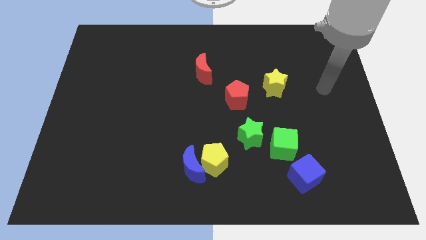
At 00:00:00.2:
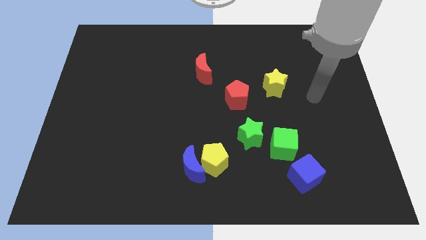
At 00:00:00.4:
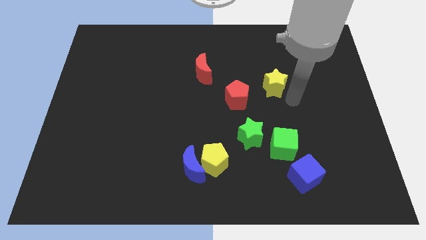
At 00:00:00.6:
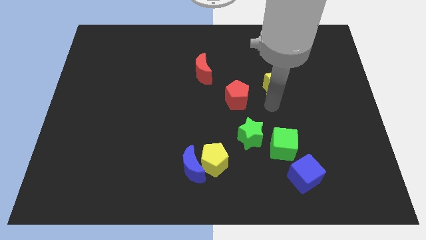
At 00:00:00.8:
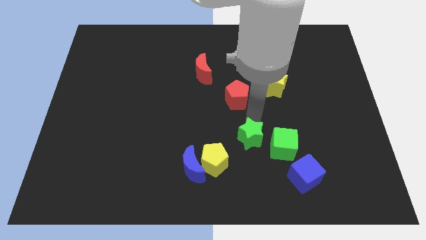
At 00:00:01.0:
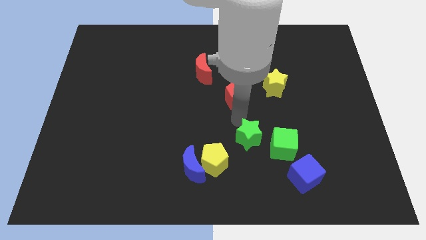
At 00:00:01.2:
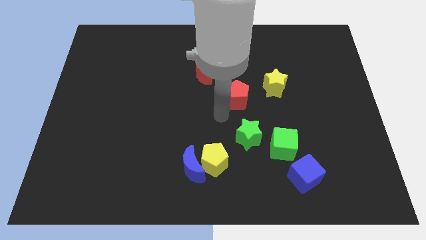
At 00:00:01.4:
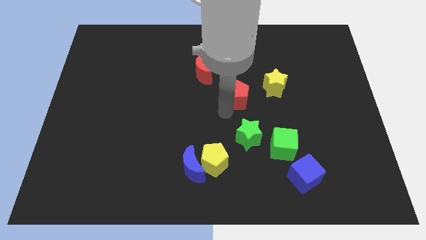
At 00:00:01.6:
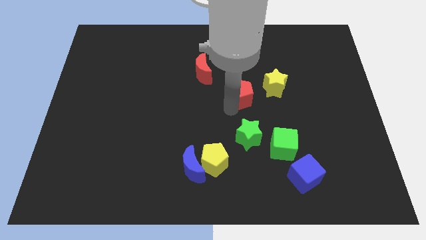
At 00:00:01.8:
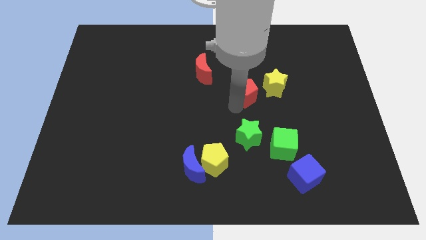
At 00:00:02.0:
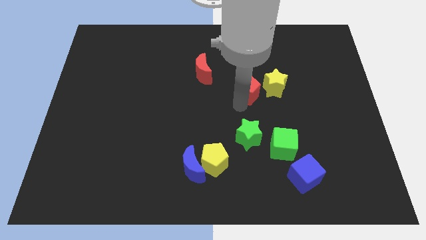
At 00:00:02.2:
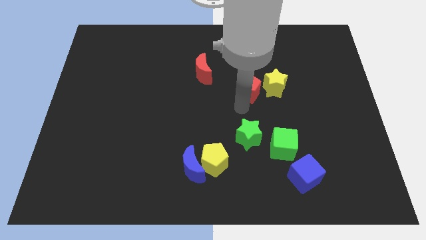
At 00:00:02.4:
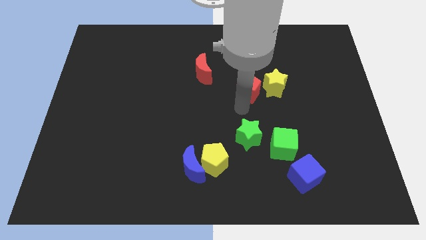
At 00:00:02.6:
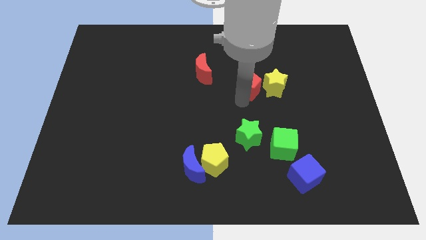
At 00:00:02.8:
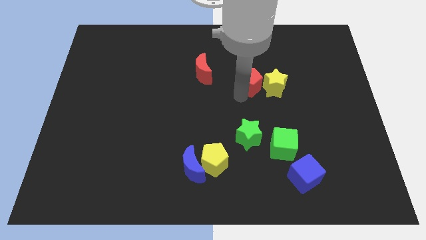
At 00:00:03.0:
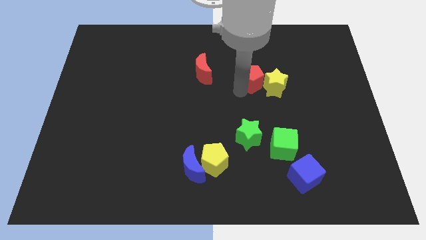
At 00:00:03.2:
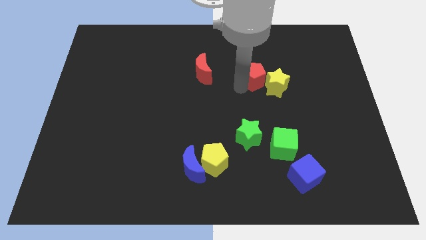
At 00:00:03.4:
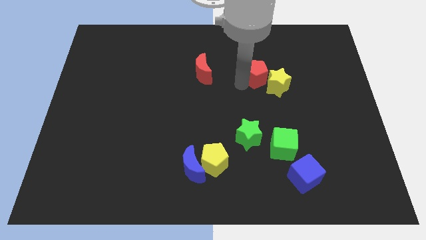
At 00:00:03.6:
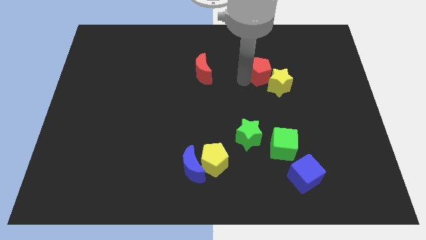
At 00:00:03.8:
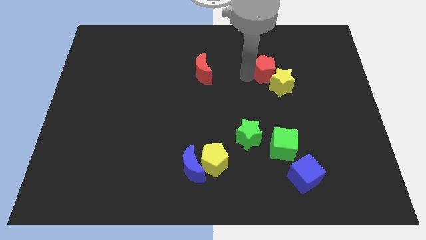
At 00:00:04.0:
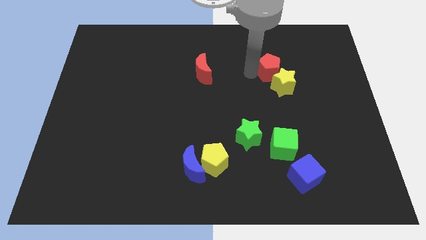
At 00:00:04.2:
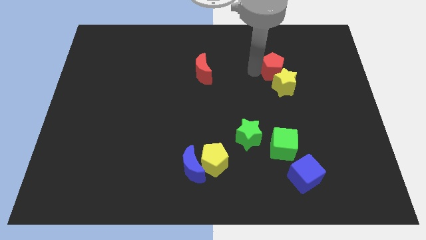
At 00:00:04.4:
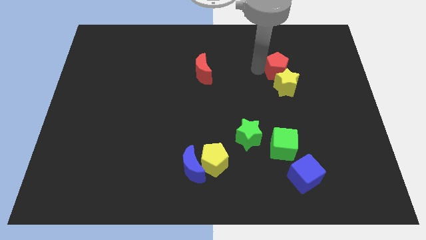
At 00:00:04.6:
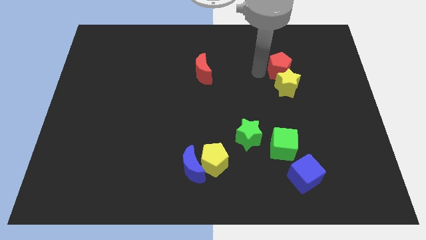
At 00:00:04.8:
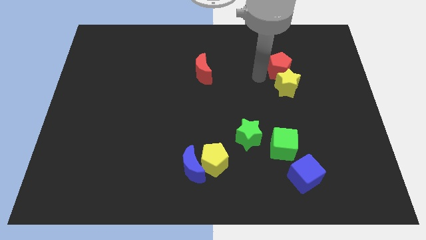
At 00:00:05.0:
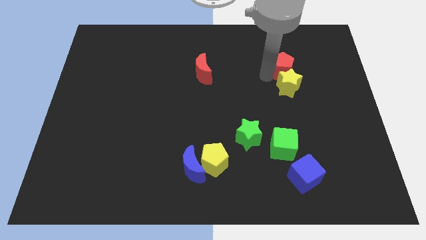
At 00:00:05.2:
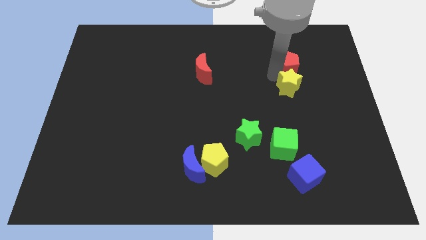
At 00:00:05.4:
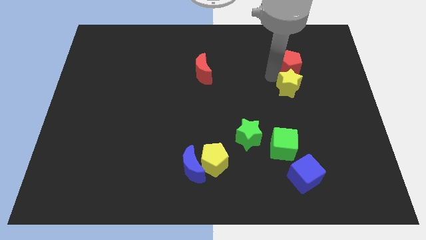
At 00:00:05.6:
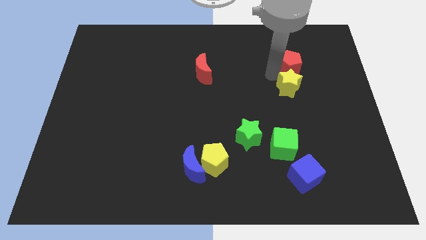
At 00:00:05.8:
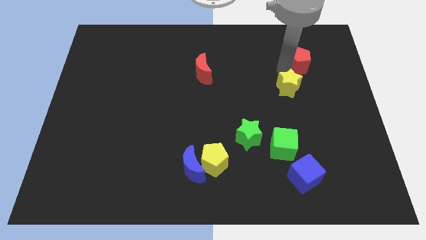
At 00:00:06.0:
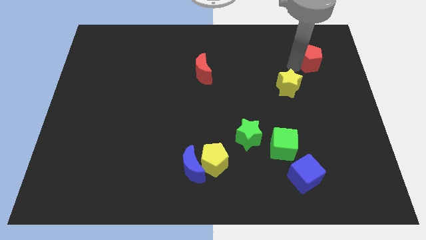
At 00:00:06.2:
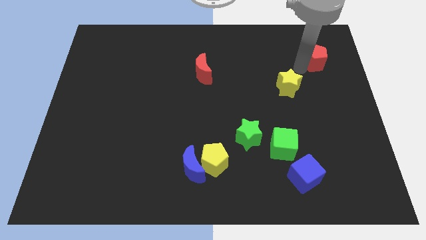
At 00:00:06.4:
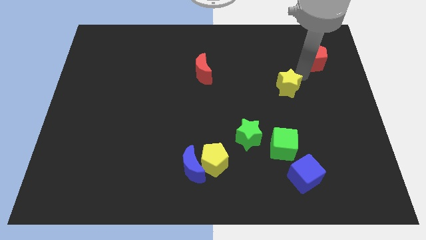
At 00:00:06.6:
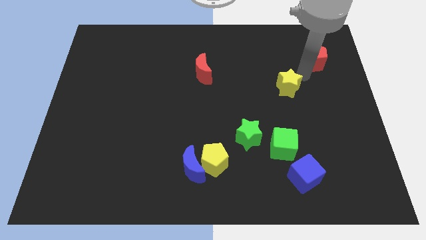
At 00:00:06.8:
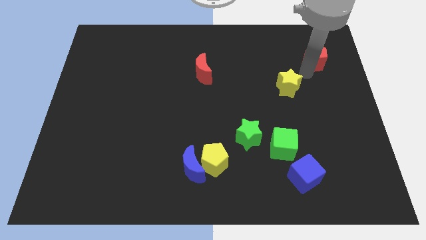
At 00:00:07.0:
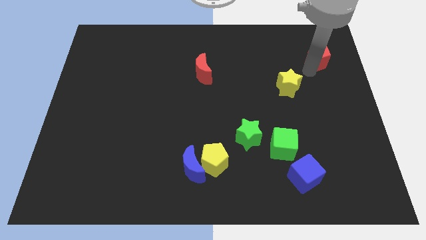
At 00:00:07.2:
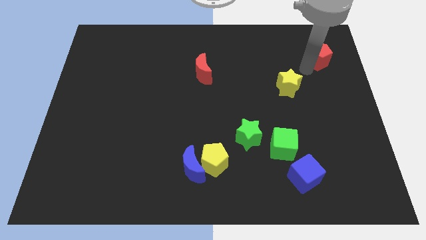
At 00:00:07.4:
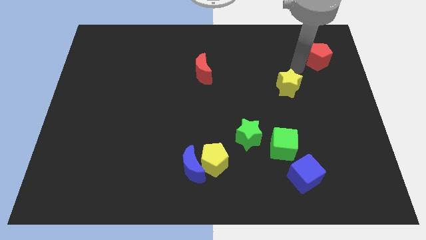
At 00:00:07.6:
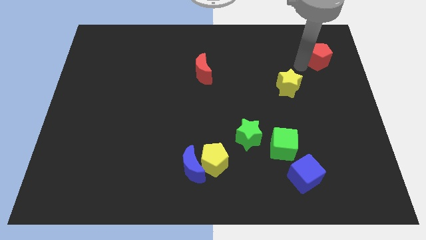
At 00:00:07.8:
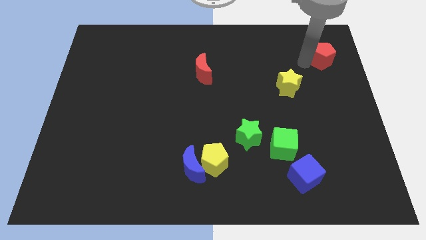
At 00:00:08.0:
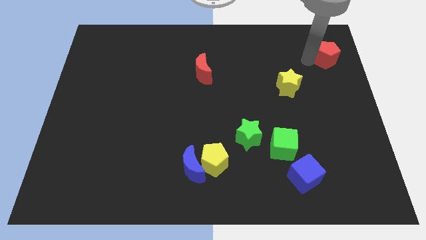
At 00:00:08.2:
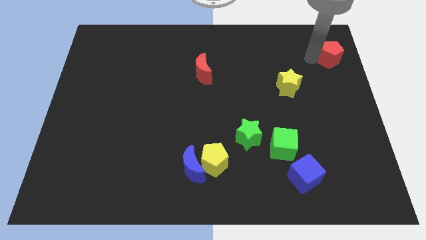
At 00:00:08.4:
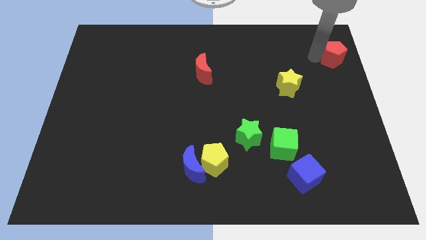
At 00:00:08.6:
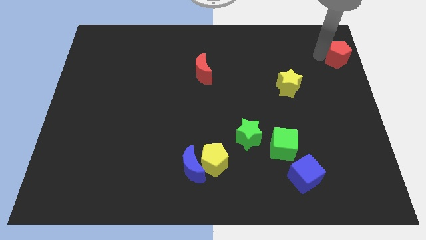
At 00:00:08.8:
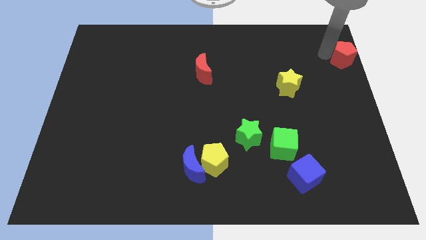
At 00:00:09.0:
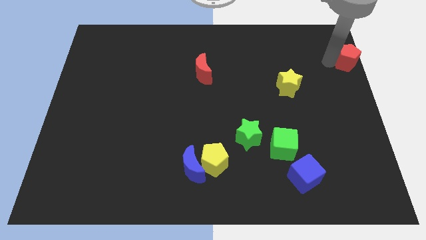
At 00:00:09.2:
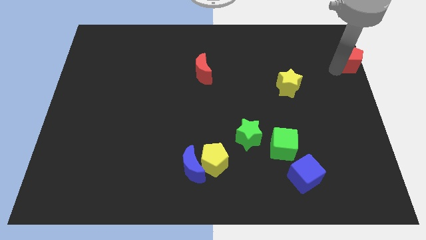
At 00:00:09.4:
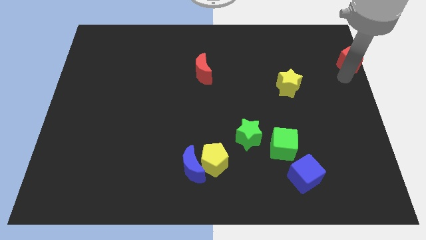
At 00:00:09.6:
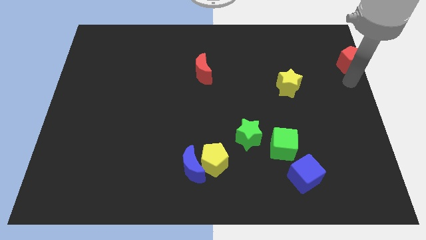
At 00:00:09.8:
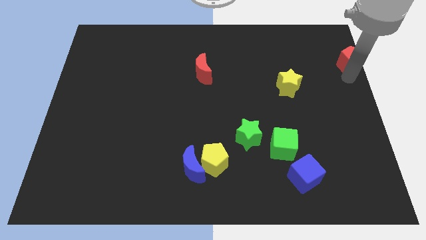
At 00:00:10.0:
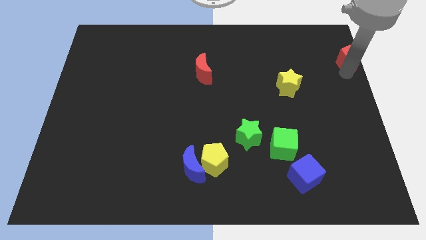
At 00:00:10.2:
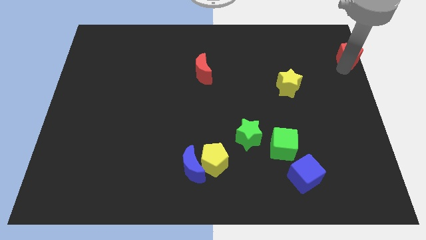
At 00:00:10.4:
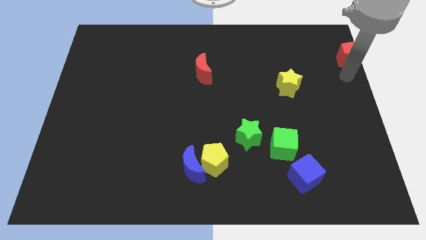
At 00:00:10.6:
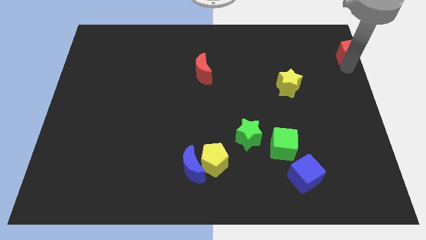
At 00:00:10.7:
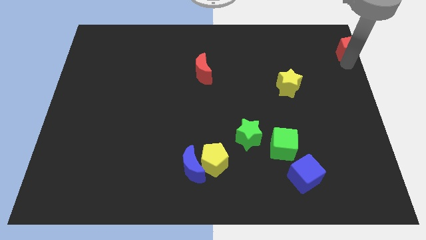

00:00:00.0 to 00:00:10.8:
slide the red pentagon to the top right of the board
